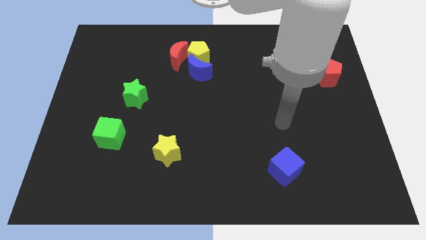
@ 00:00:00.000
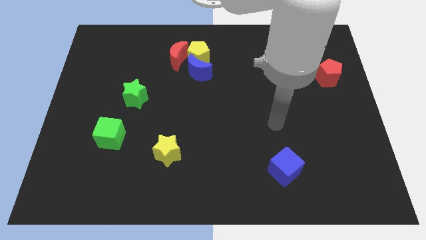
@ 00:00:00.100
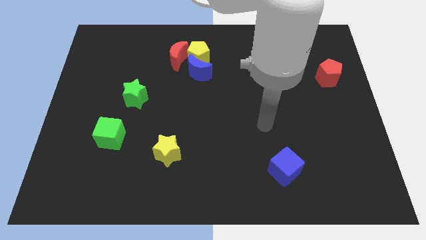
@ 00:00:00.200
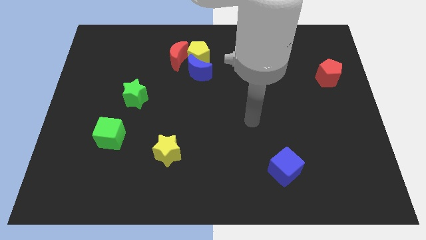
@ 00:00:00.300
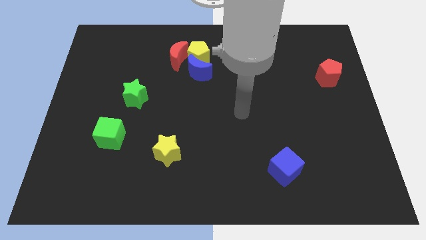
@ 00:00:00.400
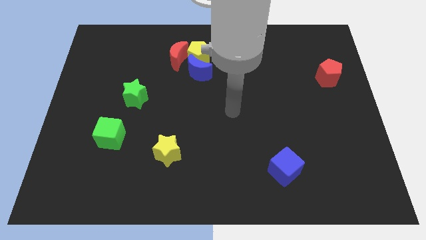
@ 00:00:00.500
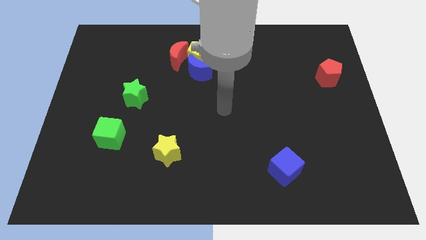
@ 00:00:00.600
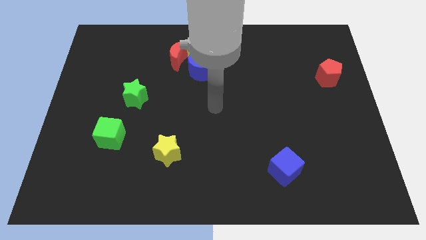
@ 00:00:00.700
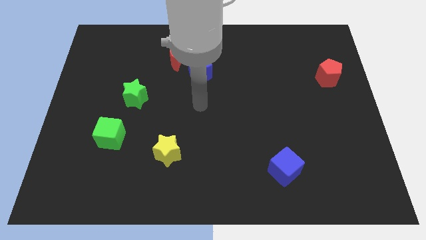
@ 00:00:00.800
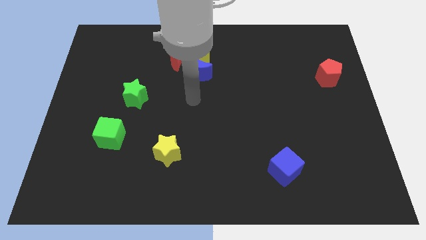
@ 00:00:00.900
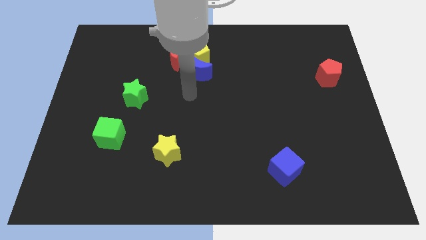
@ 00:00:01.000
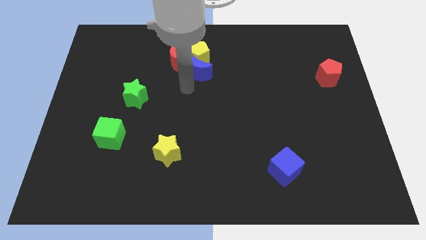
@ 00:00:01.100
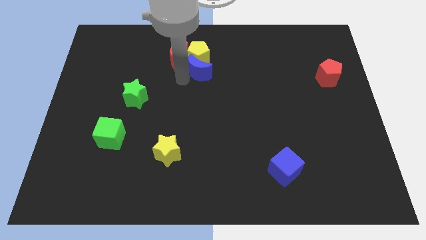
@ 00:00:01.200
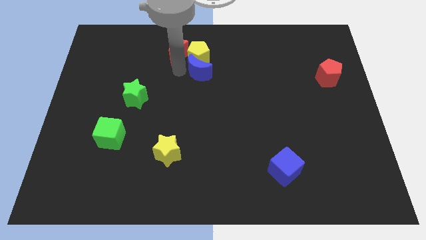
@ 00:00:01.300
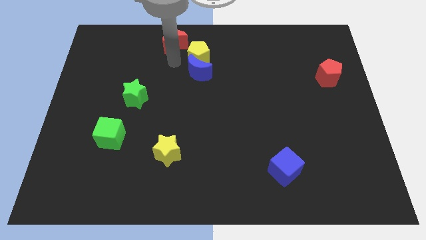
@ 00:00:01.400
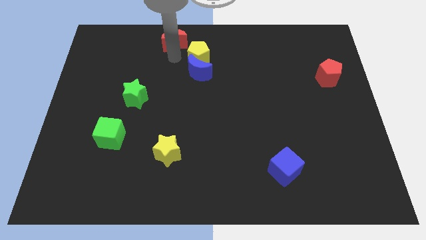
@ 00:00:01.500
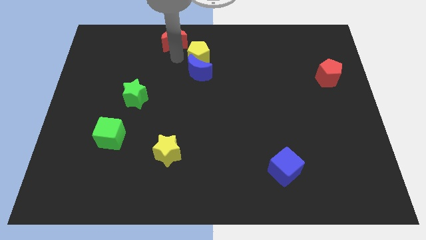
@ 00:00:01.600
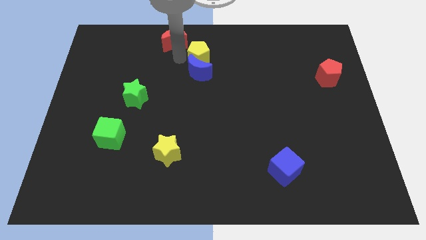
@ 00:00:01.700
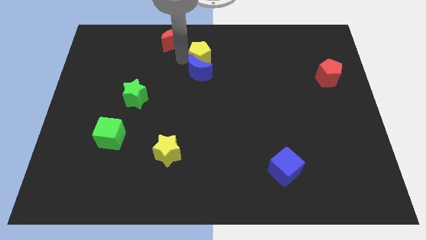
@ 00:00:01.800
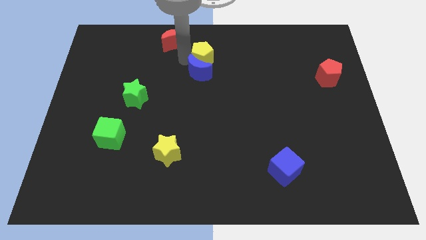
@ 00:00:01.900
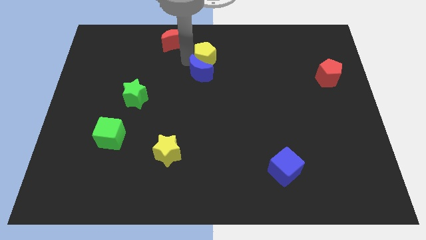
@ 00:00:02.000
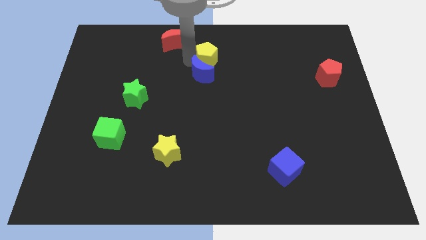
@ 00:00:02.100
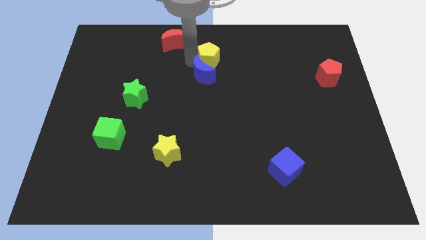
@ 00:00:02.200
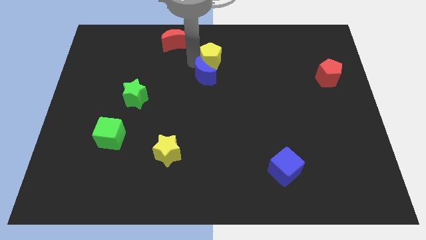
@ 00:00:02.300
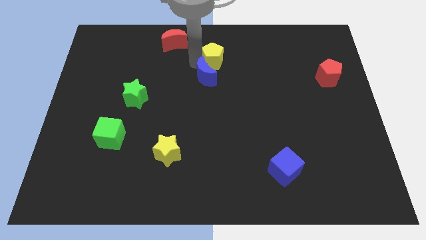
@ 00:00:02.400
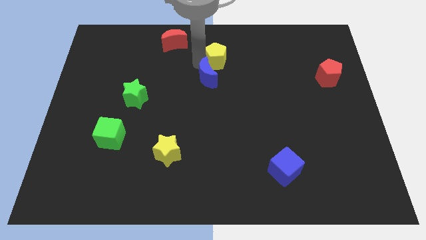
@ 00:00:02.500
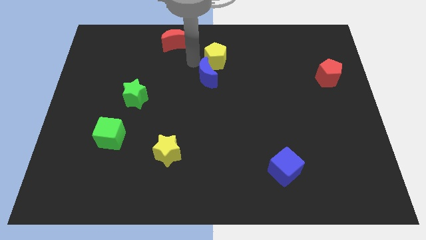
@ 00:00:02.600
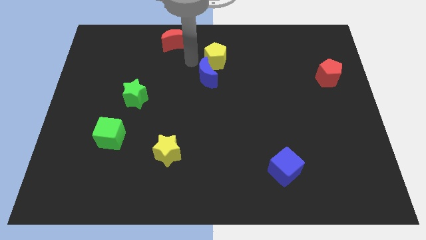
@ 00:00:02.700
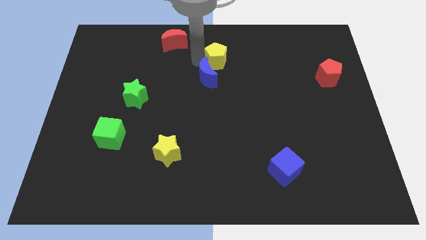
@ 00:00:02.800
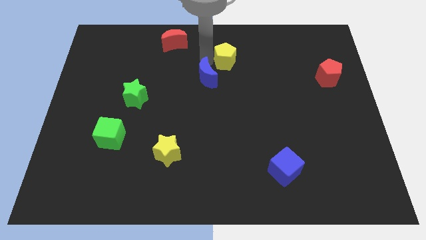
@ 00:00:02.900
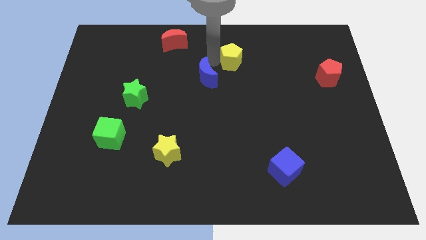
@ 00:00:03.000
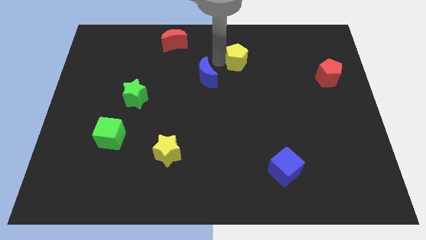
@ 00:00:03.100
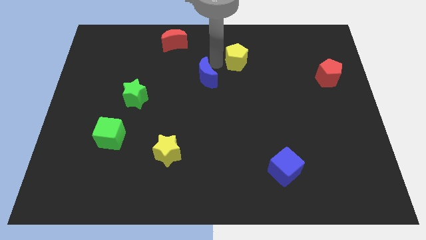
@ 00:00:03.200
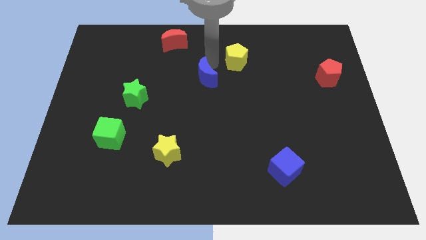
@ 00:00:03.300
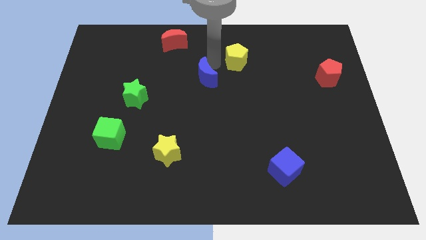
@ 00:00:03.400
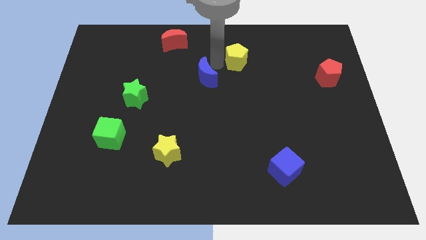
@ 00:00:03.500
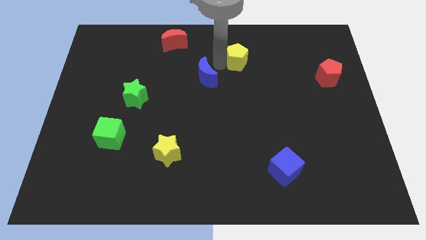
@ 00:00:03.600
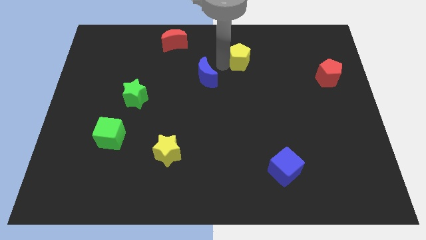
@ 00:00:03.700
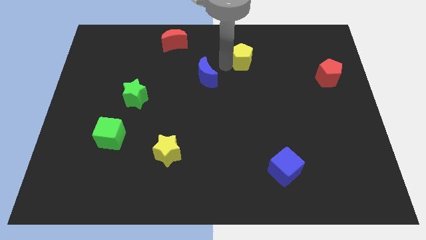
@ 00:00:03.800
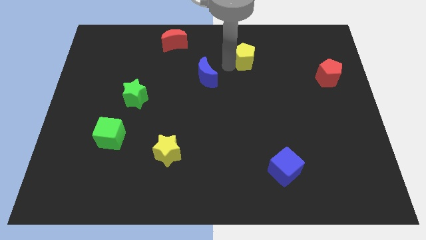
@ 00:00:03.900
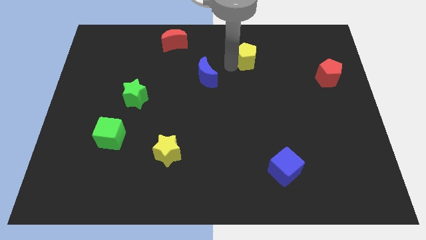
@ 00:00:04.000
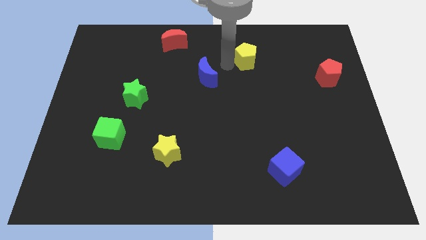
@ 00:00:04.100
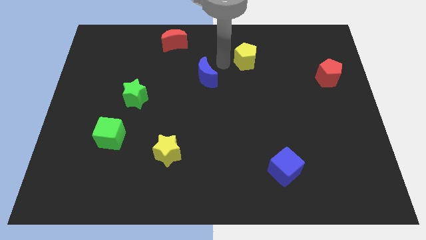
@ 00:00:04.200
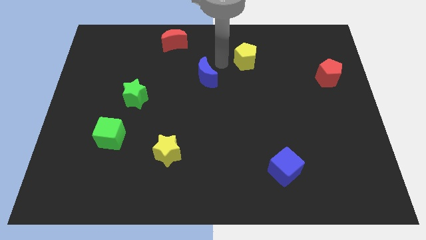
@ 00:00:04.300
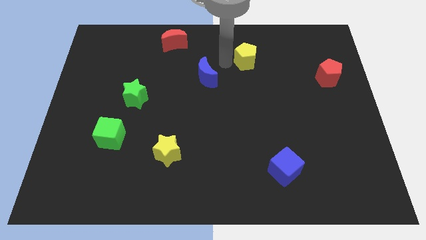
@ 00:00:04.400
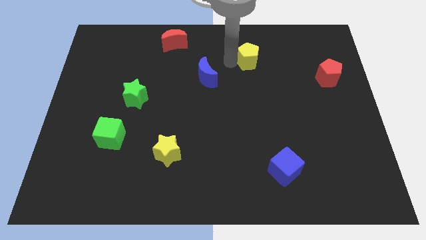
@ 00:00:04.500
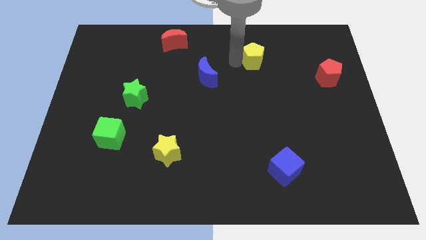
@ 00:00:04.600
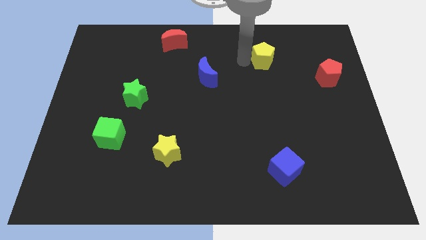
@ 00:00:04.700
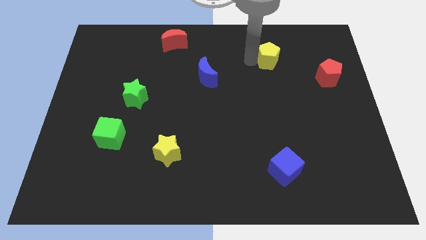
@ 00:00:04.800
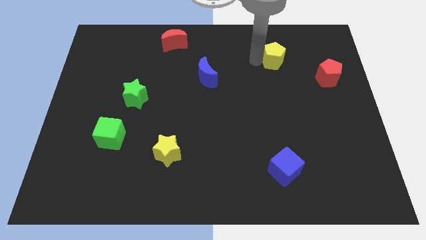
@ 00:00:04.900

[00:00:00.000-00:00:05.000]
slide the yellow pentagon right

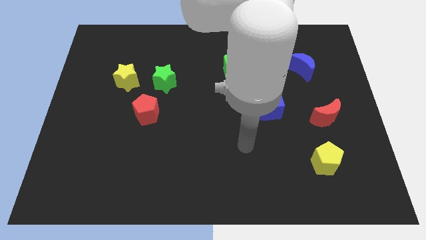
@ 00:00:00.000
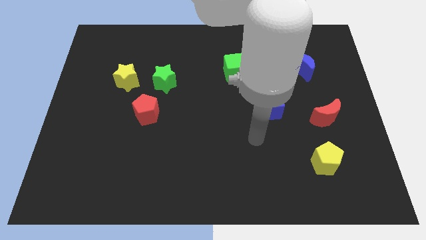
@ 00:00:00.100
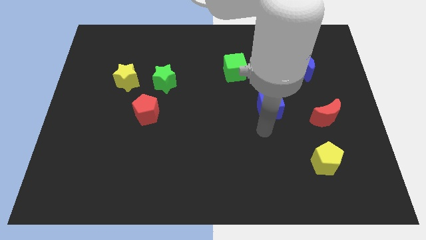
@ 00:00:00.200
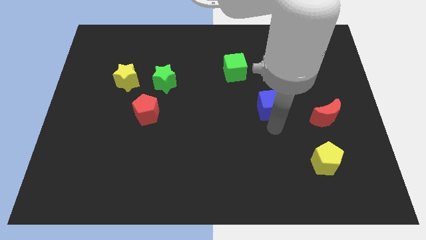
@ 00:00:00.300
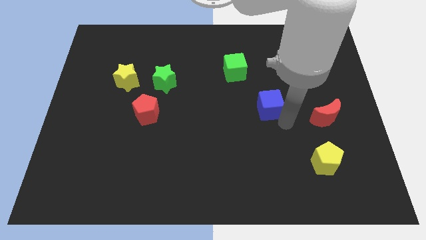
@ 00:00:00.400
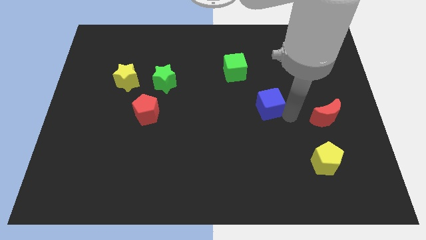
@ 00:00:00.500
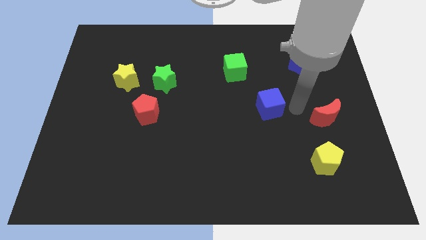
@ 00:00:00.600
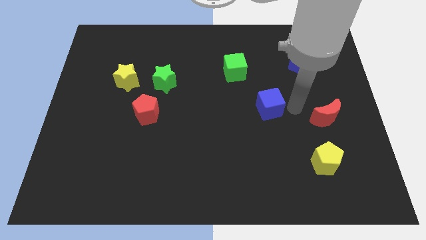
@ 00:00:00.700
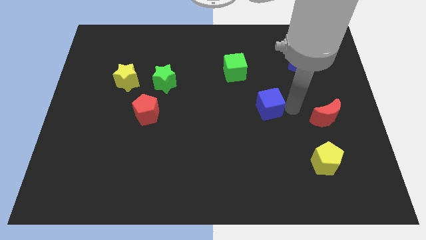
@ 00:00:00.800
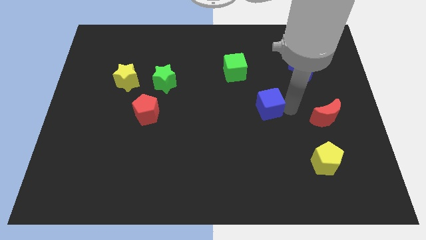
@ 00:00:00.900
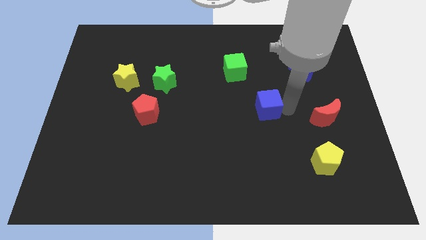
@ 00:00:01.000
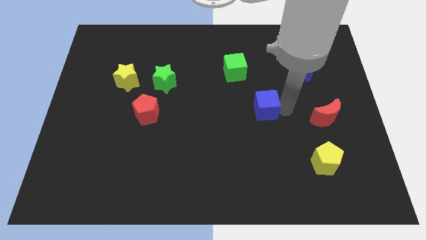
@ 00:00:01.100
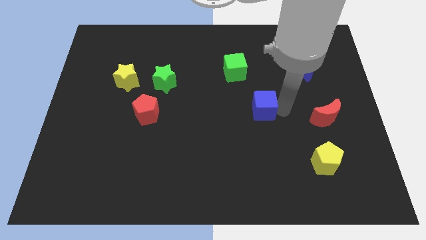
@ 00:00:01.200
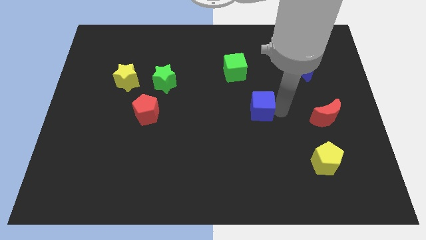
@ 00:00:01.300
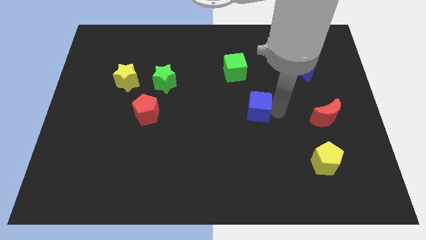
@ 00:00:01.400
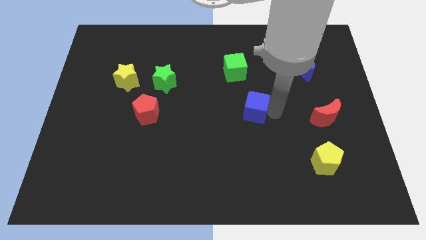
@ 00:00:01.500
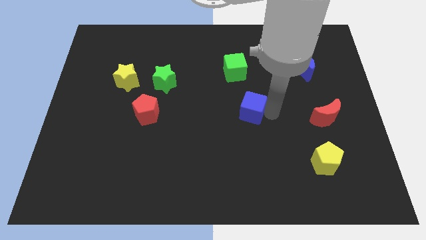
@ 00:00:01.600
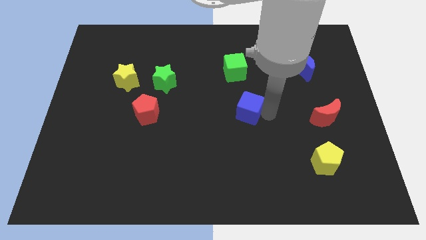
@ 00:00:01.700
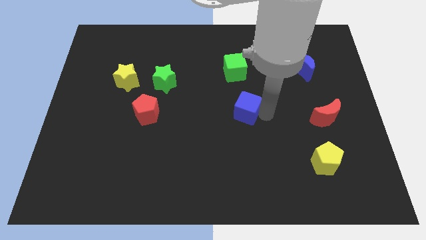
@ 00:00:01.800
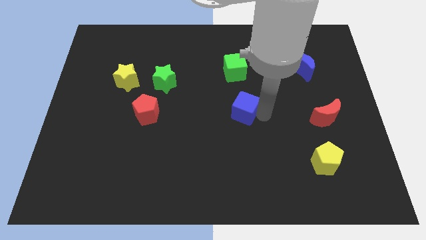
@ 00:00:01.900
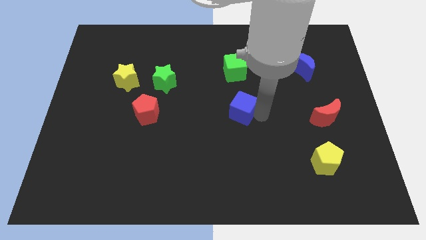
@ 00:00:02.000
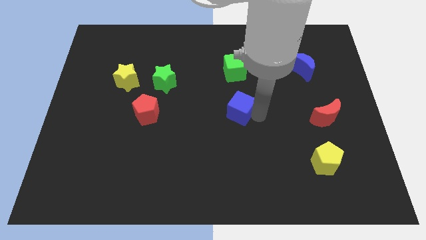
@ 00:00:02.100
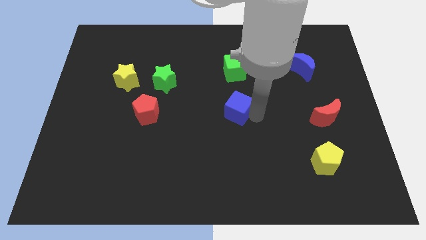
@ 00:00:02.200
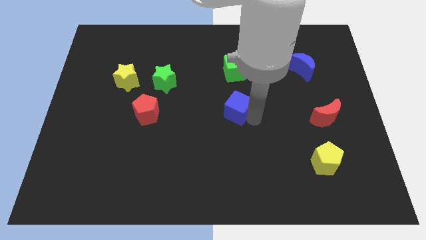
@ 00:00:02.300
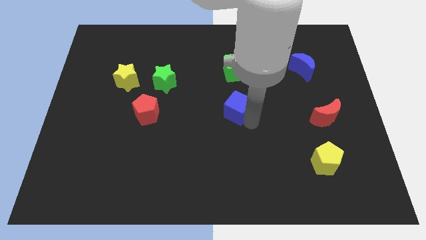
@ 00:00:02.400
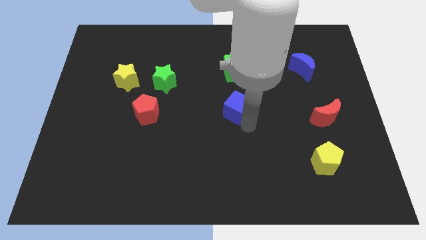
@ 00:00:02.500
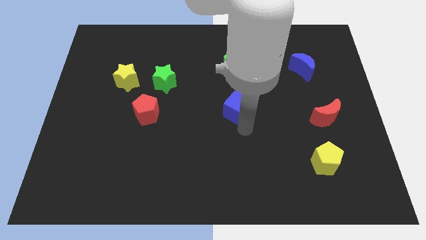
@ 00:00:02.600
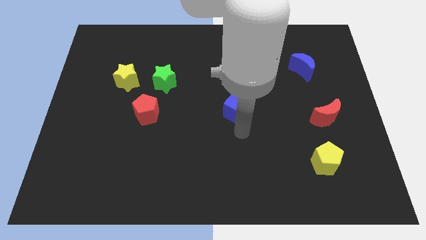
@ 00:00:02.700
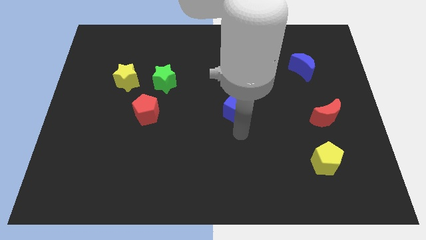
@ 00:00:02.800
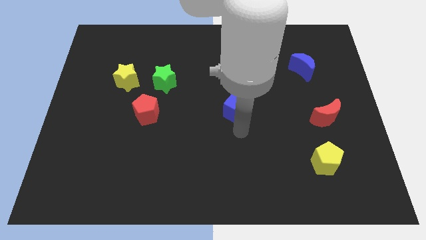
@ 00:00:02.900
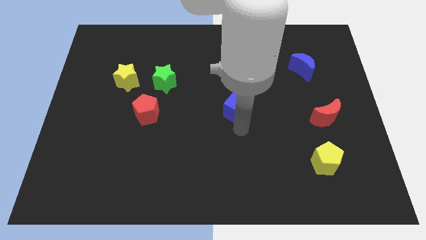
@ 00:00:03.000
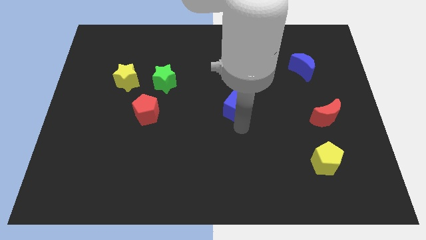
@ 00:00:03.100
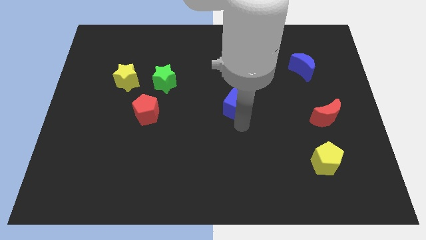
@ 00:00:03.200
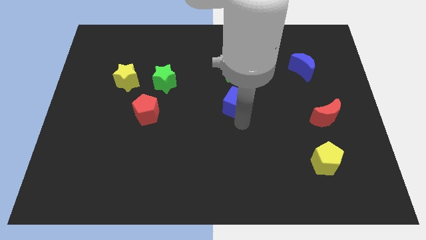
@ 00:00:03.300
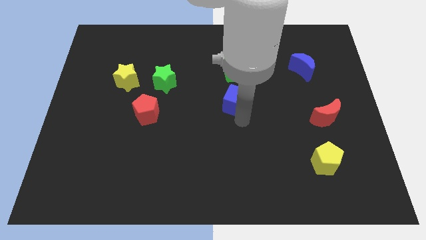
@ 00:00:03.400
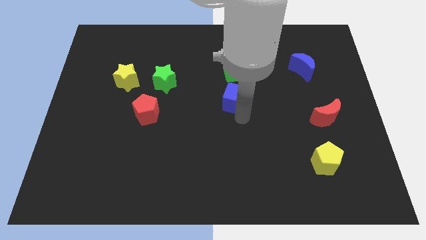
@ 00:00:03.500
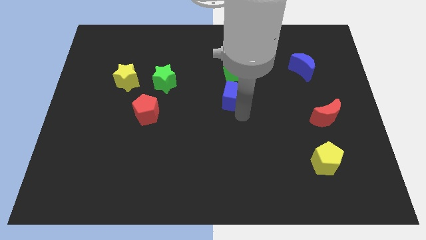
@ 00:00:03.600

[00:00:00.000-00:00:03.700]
push the blue cube upwards and then to the left a bit
